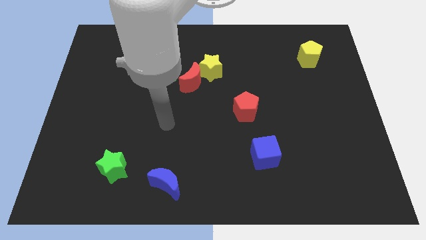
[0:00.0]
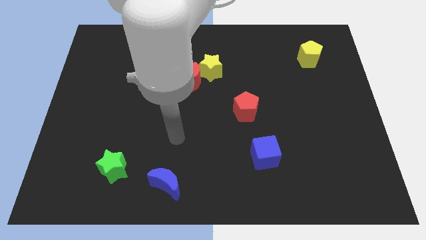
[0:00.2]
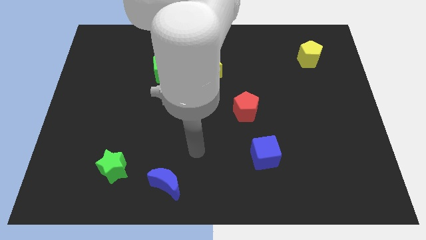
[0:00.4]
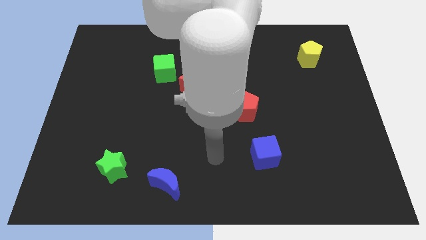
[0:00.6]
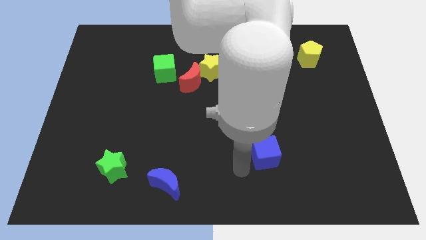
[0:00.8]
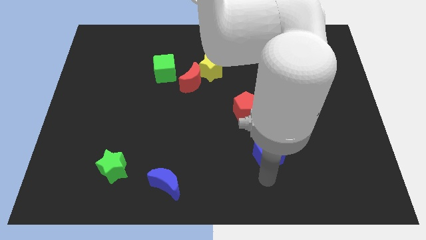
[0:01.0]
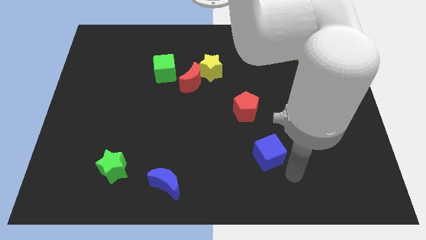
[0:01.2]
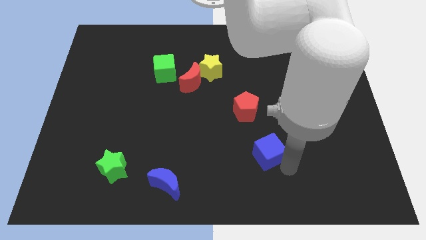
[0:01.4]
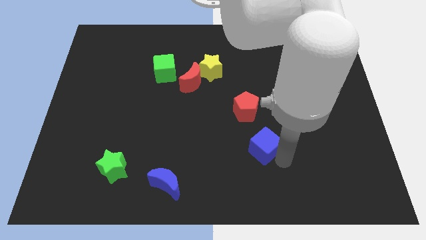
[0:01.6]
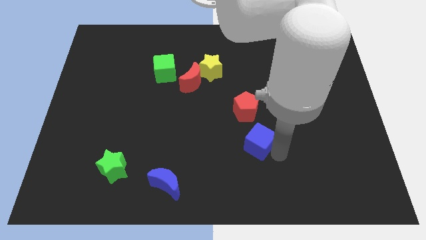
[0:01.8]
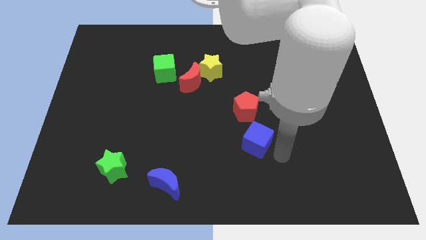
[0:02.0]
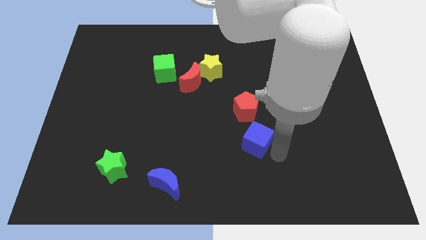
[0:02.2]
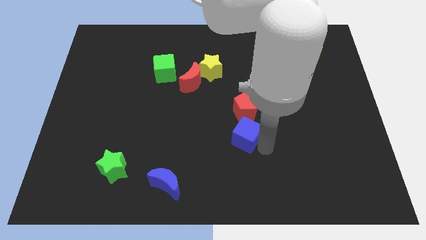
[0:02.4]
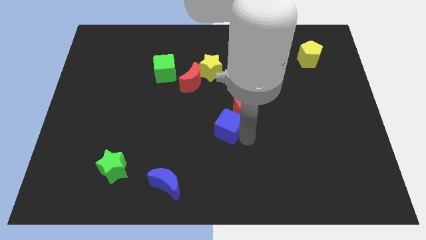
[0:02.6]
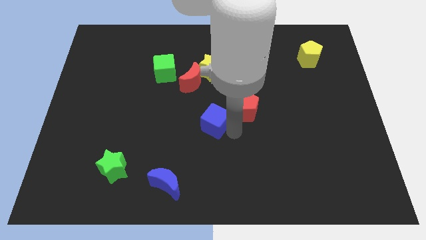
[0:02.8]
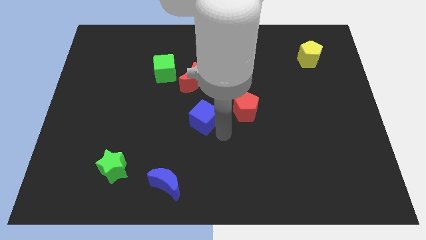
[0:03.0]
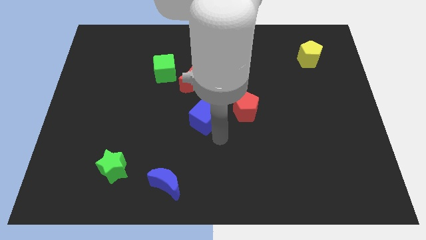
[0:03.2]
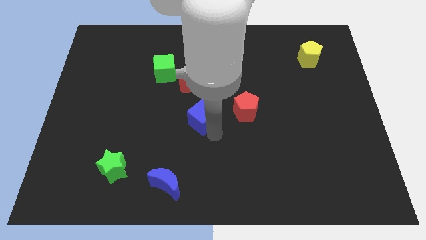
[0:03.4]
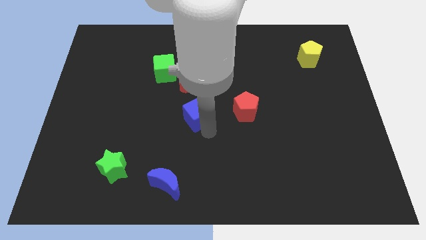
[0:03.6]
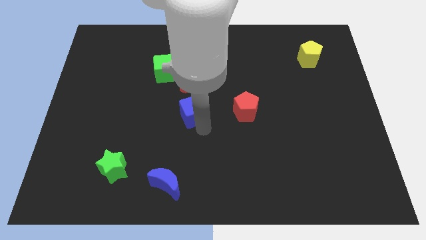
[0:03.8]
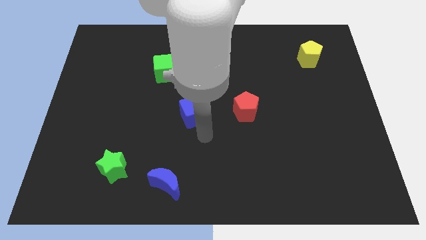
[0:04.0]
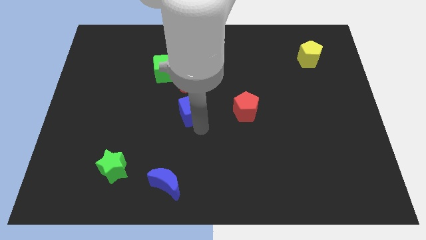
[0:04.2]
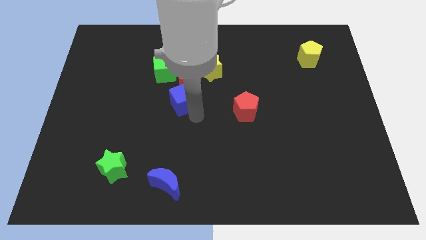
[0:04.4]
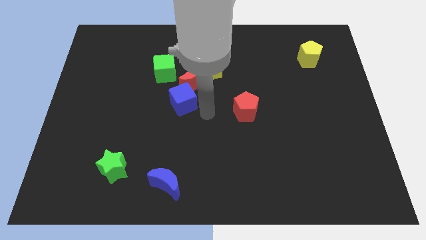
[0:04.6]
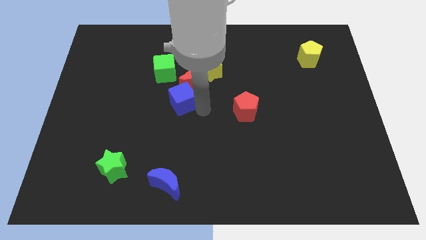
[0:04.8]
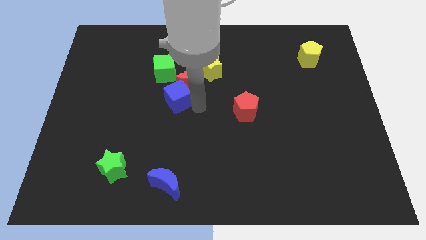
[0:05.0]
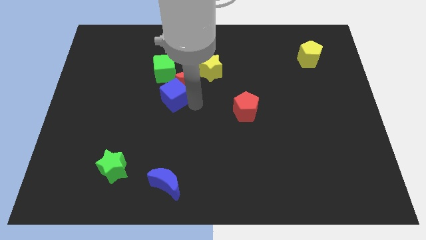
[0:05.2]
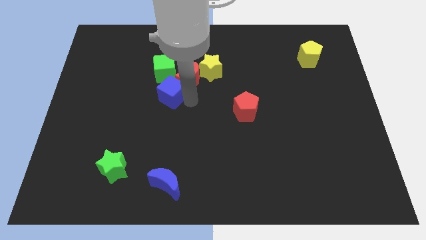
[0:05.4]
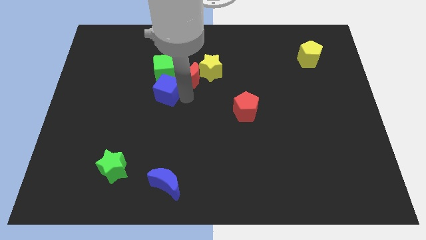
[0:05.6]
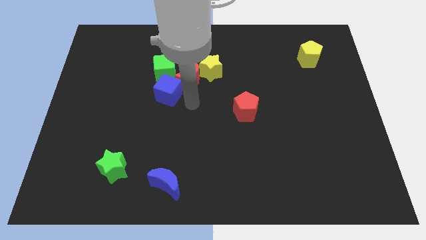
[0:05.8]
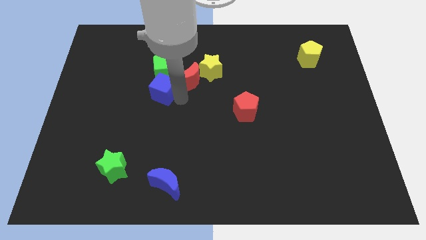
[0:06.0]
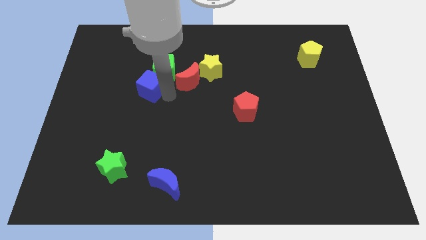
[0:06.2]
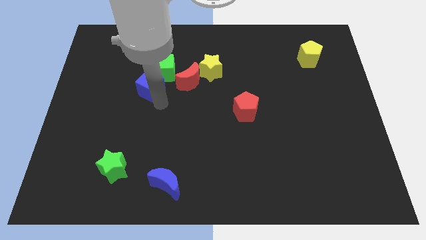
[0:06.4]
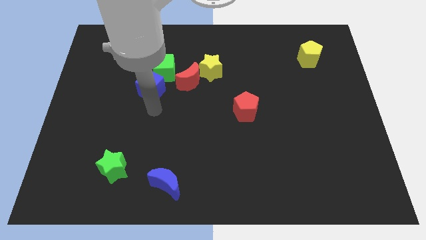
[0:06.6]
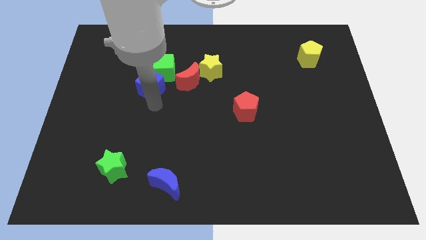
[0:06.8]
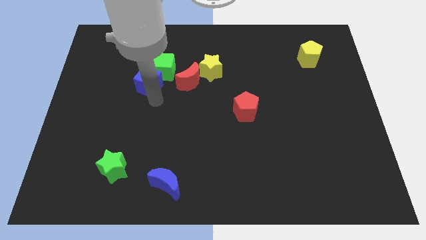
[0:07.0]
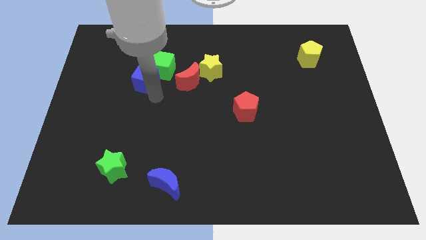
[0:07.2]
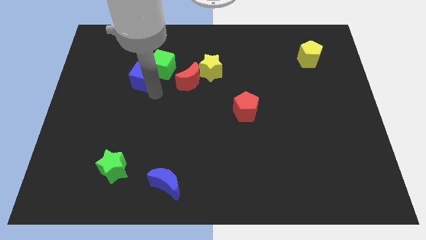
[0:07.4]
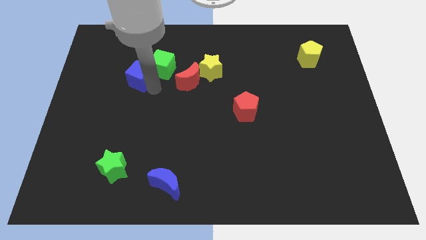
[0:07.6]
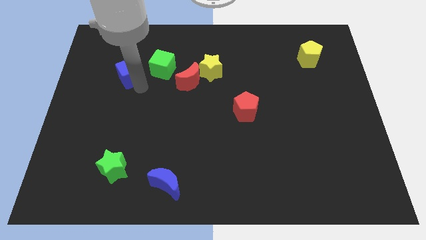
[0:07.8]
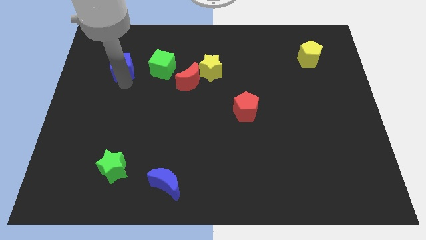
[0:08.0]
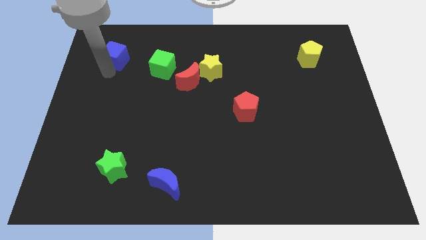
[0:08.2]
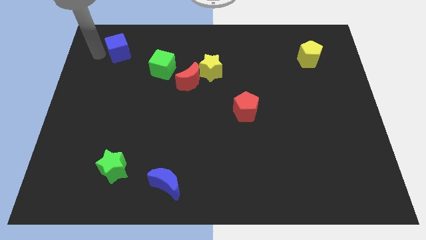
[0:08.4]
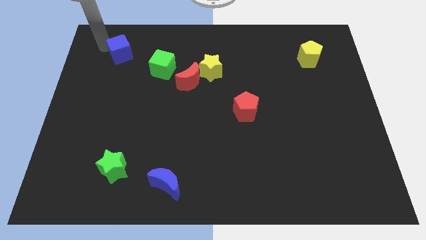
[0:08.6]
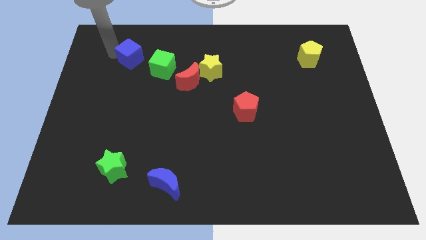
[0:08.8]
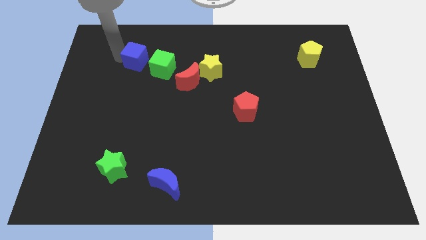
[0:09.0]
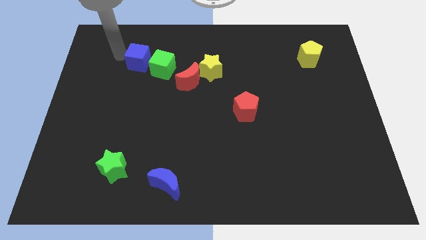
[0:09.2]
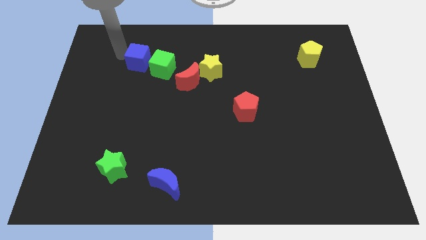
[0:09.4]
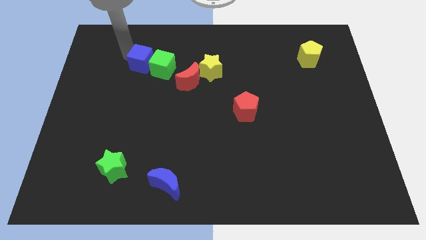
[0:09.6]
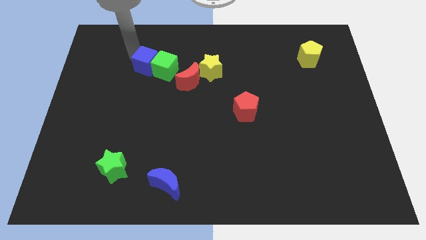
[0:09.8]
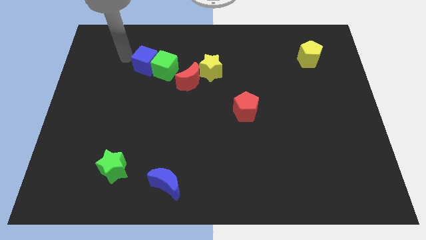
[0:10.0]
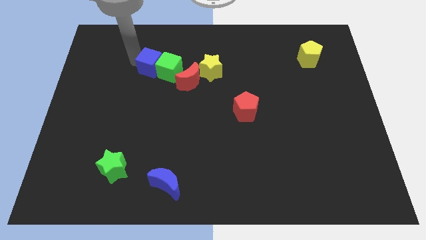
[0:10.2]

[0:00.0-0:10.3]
slide the blue cube to the left of the yellow star

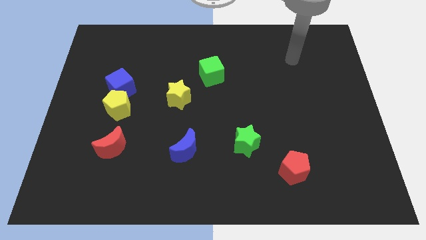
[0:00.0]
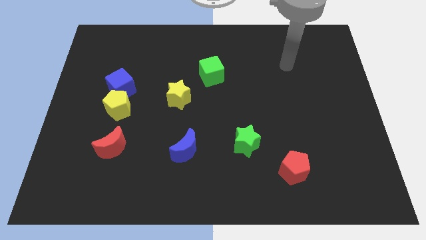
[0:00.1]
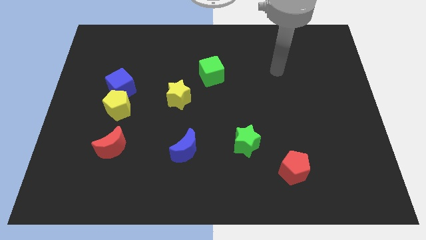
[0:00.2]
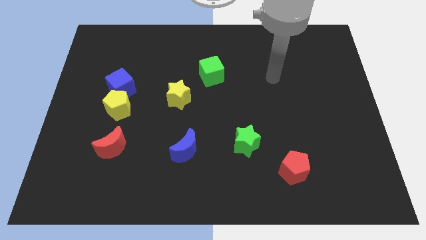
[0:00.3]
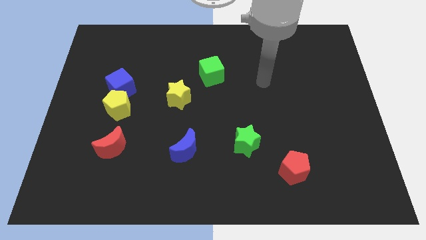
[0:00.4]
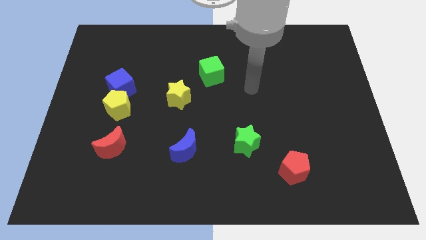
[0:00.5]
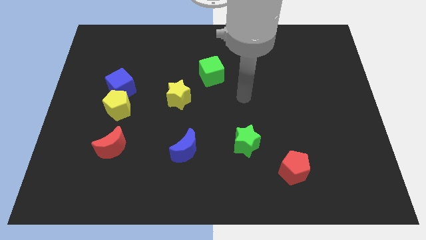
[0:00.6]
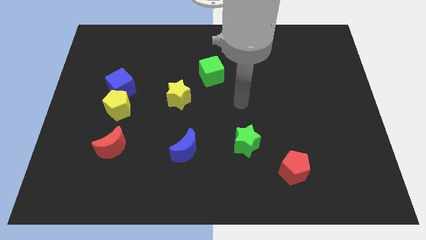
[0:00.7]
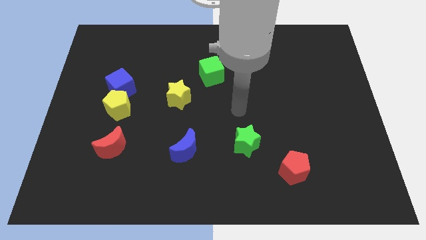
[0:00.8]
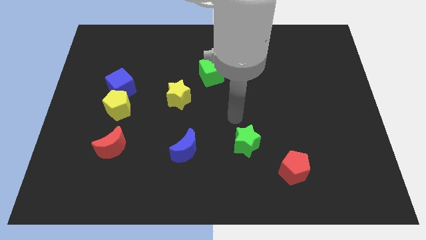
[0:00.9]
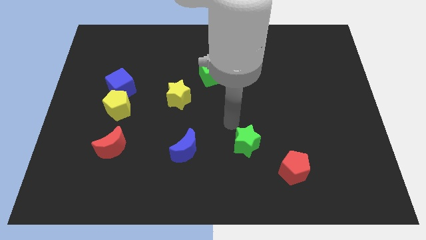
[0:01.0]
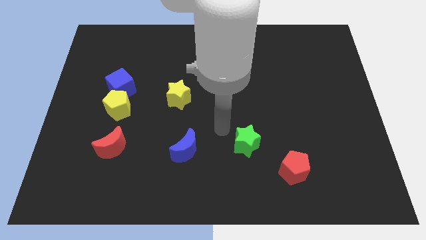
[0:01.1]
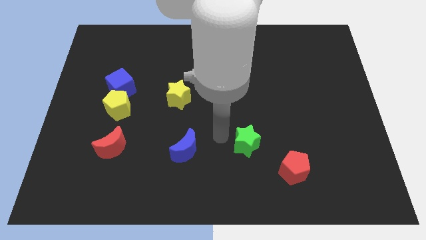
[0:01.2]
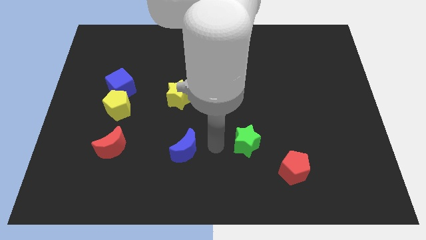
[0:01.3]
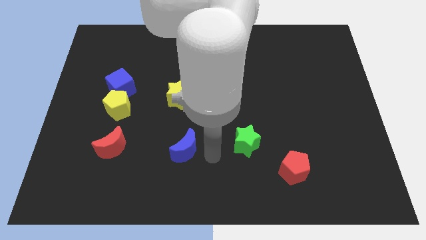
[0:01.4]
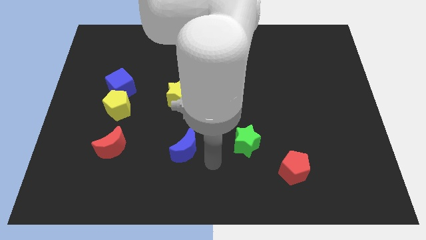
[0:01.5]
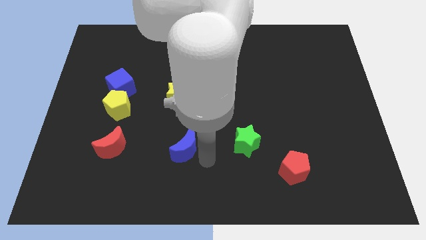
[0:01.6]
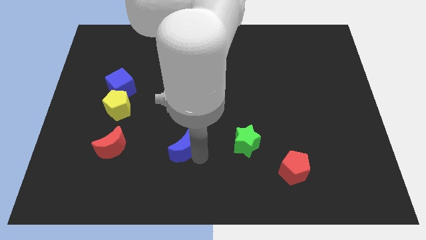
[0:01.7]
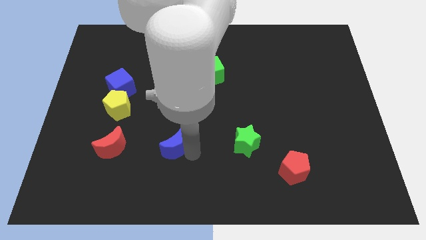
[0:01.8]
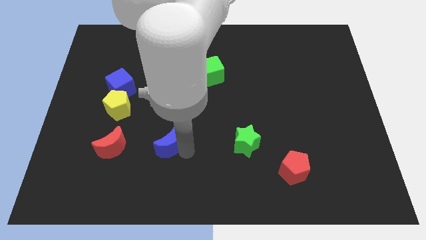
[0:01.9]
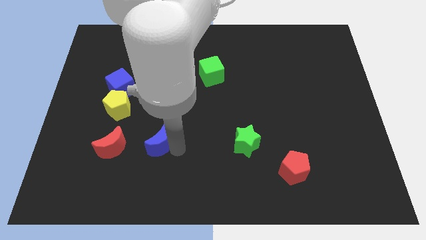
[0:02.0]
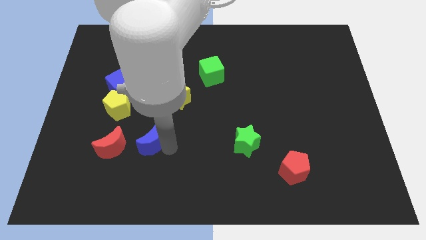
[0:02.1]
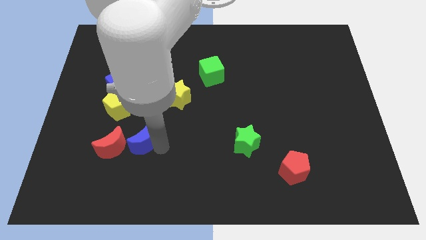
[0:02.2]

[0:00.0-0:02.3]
push the blue moon to the bottom right side of the yellow pentagon
